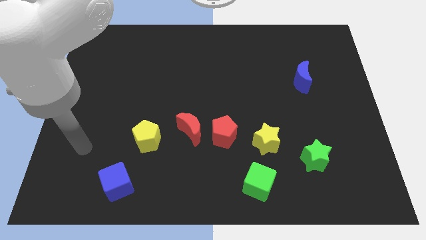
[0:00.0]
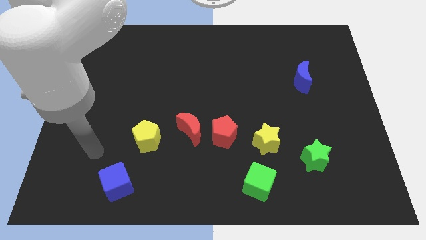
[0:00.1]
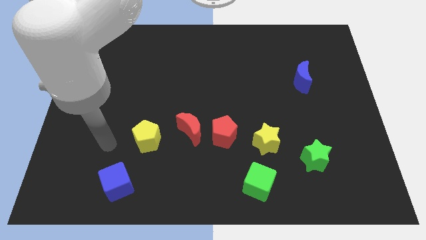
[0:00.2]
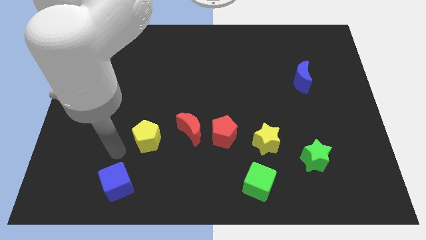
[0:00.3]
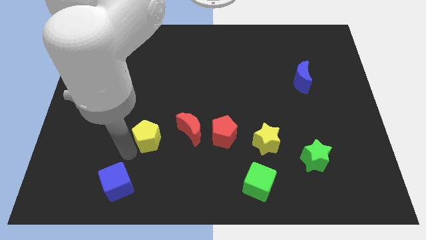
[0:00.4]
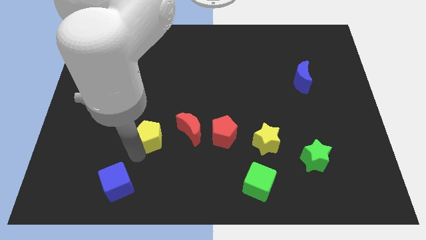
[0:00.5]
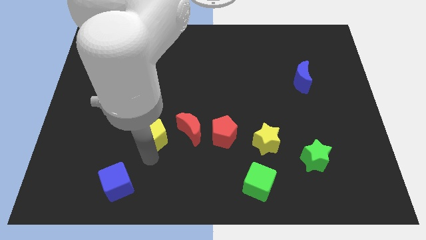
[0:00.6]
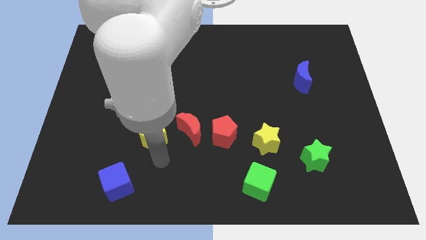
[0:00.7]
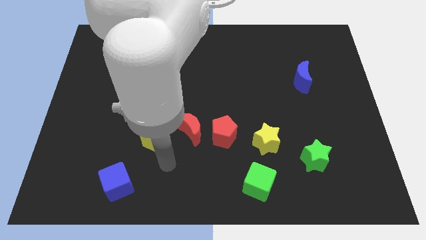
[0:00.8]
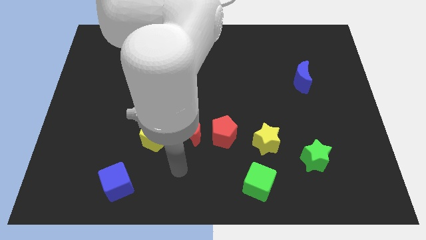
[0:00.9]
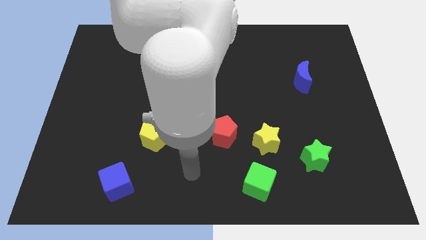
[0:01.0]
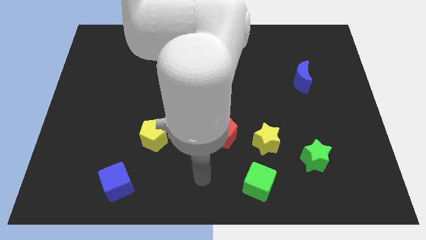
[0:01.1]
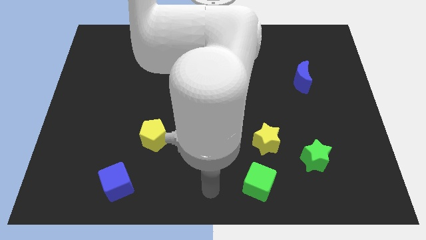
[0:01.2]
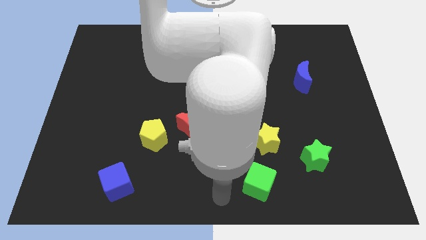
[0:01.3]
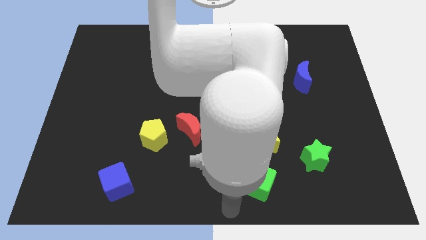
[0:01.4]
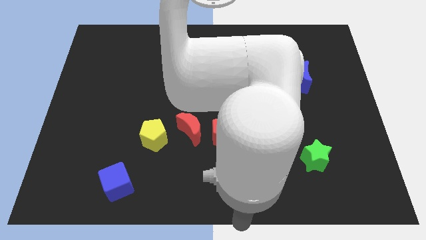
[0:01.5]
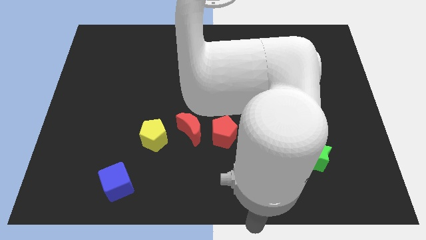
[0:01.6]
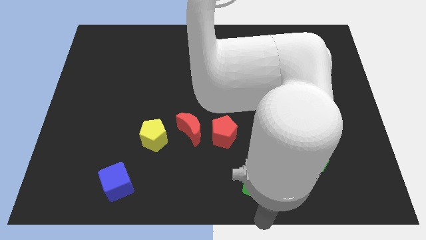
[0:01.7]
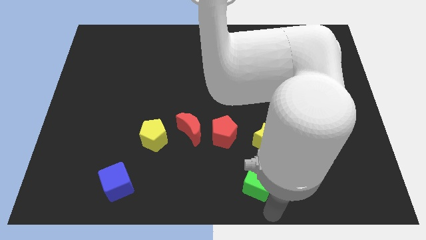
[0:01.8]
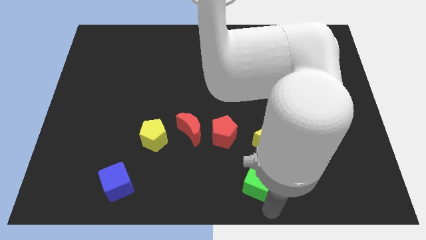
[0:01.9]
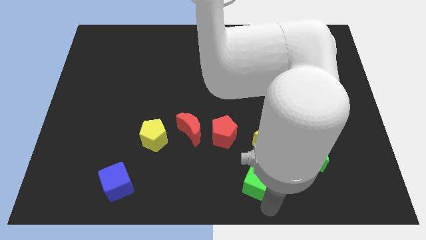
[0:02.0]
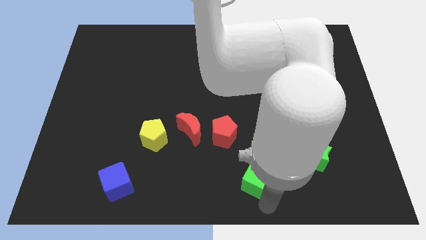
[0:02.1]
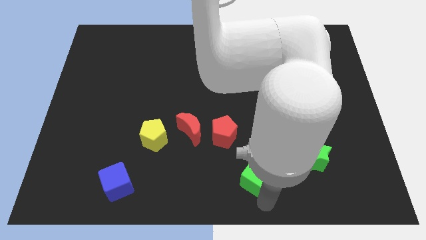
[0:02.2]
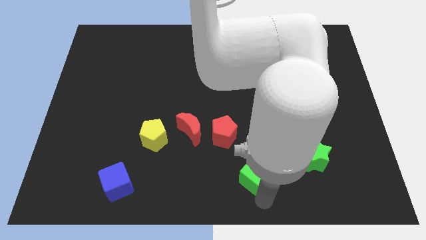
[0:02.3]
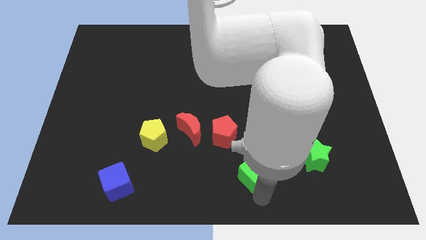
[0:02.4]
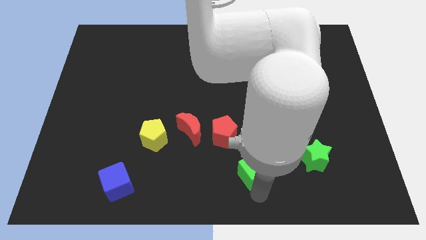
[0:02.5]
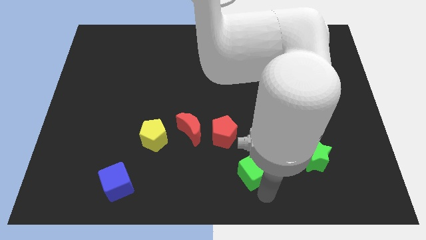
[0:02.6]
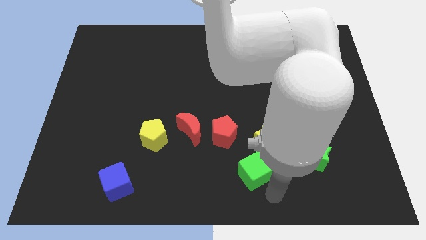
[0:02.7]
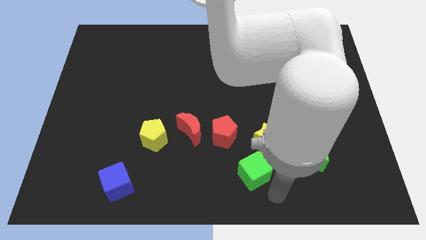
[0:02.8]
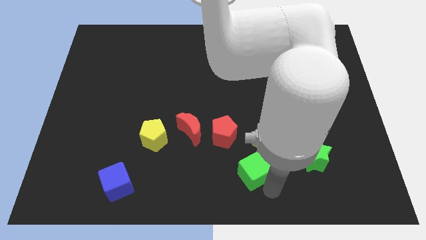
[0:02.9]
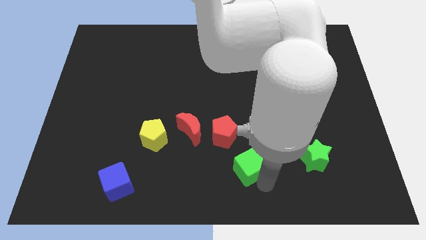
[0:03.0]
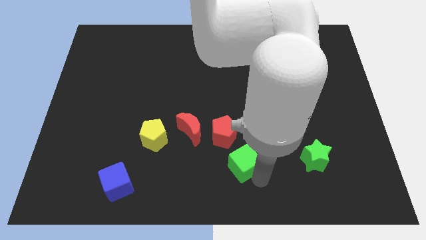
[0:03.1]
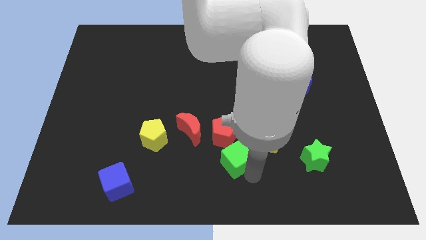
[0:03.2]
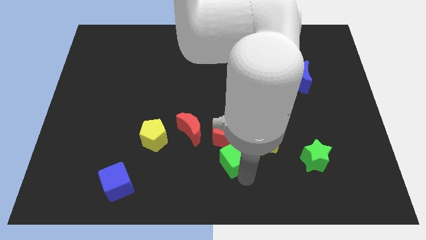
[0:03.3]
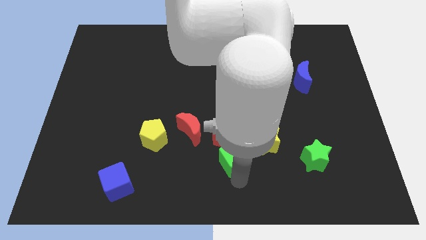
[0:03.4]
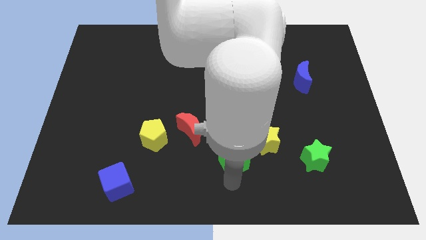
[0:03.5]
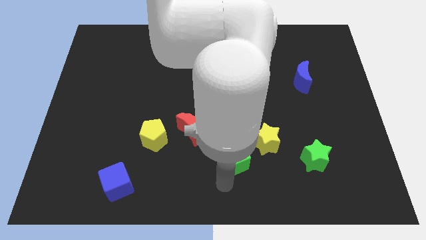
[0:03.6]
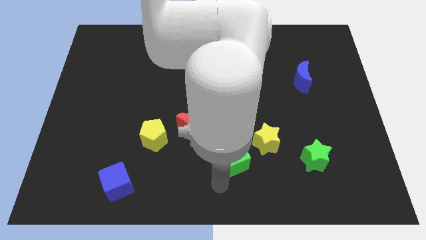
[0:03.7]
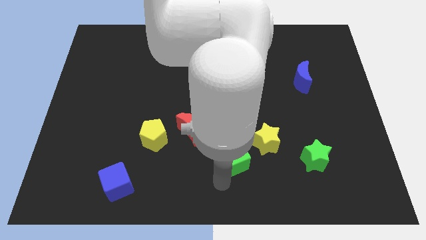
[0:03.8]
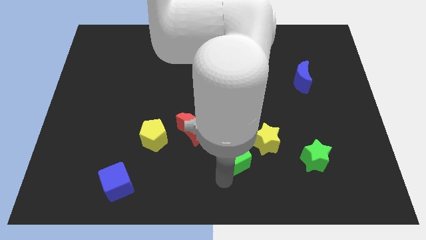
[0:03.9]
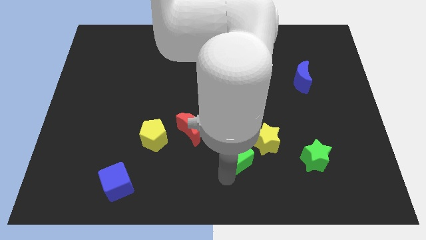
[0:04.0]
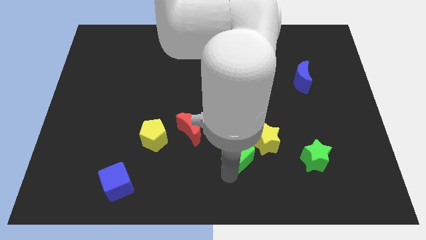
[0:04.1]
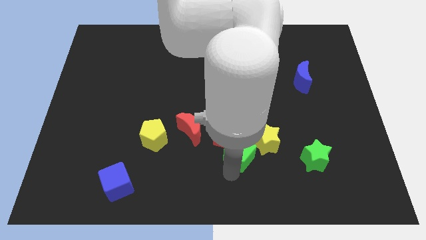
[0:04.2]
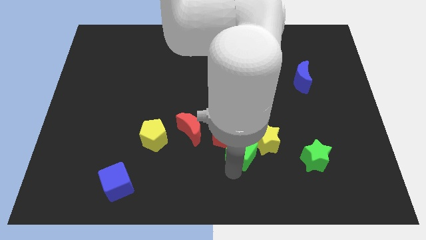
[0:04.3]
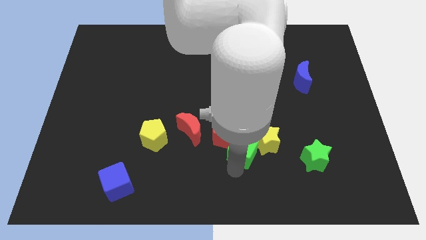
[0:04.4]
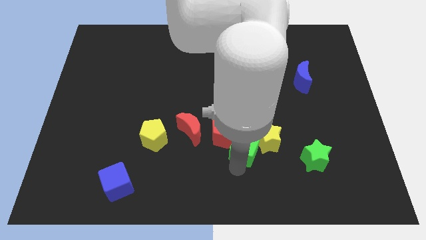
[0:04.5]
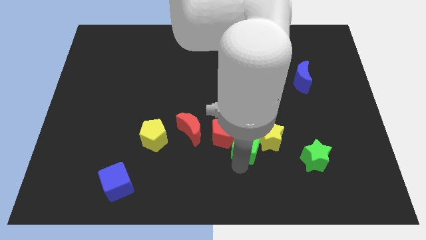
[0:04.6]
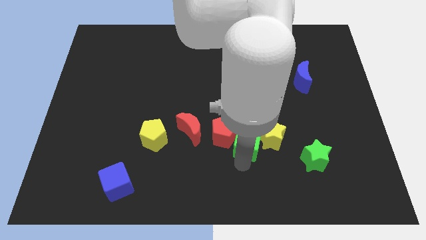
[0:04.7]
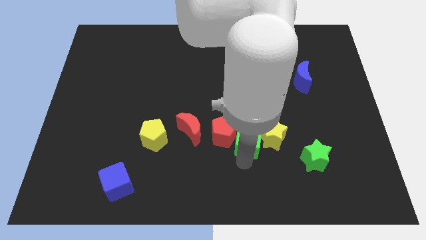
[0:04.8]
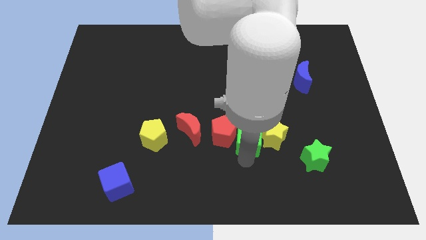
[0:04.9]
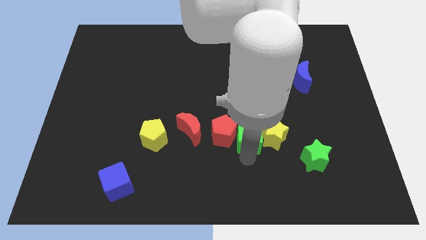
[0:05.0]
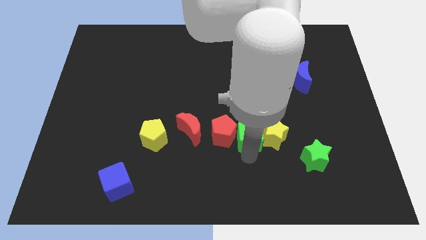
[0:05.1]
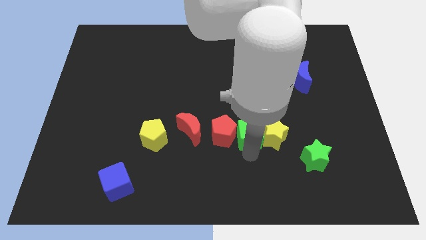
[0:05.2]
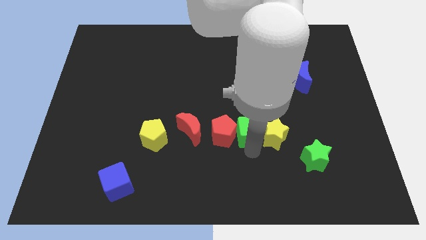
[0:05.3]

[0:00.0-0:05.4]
move the green cube to the middle of the board

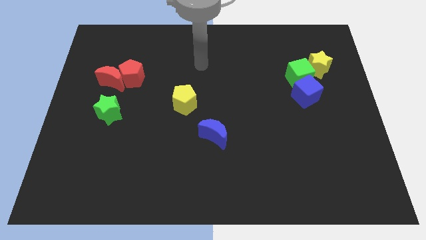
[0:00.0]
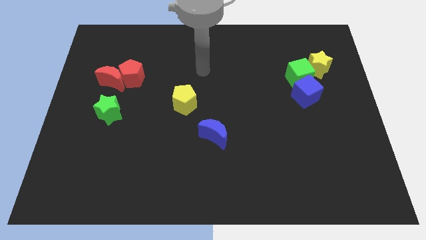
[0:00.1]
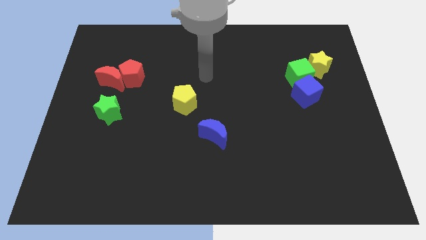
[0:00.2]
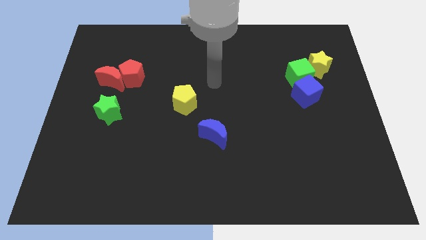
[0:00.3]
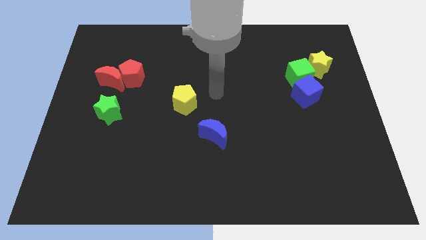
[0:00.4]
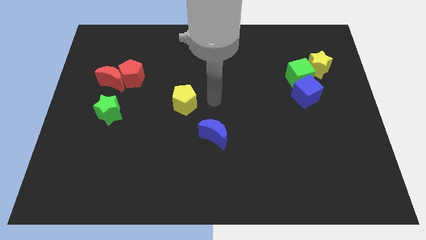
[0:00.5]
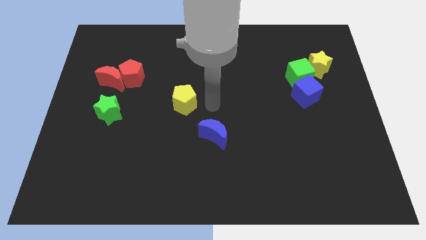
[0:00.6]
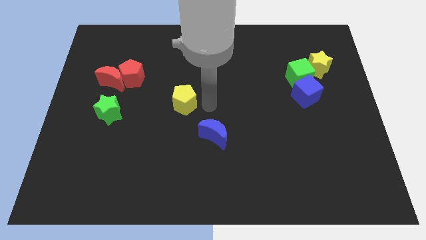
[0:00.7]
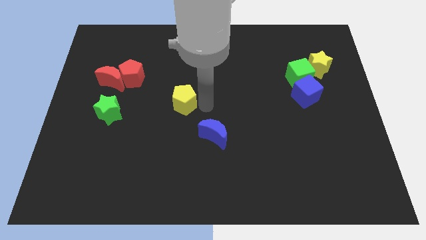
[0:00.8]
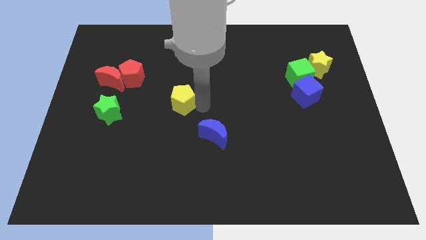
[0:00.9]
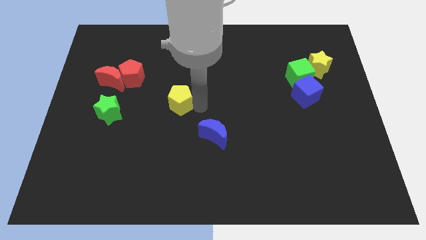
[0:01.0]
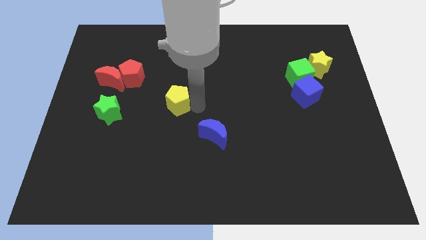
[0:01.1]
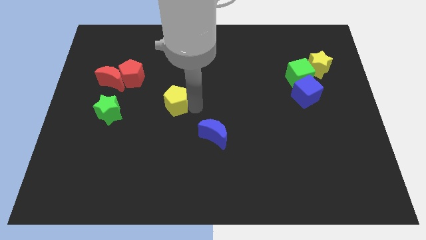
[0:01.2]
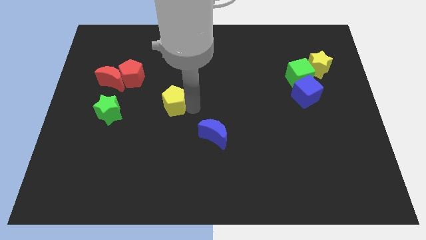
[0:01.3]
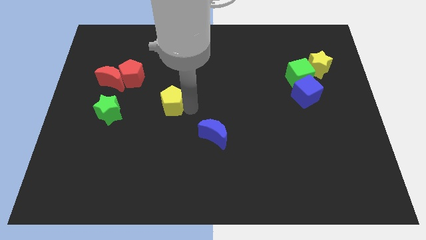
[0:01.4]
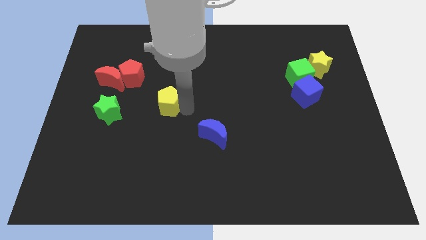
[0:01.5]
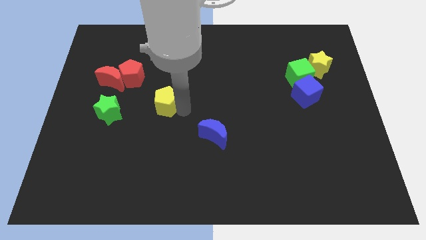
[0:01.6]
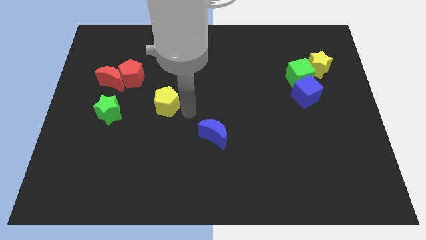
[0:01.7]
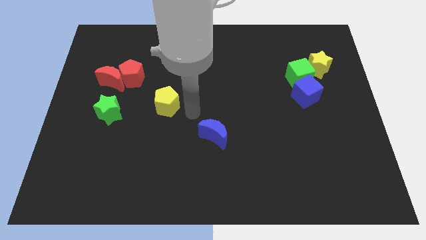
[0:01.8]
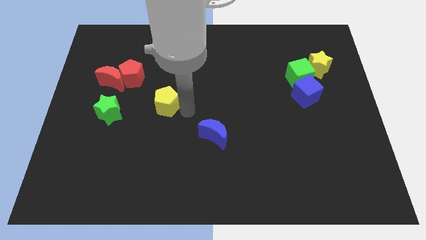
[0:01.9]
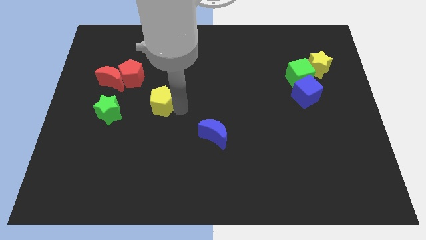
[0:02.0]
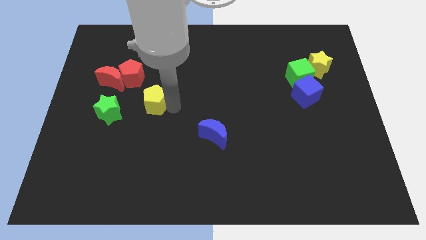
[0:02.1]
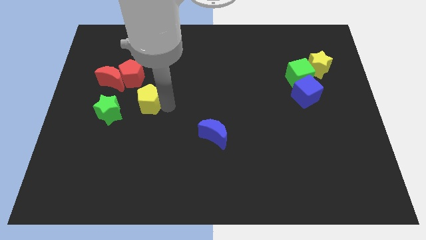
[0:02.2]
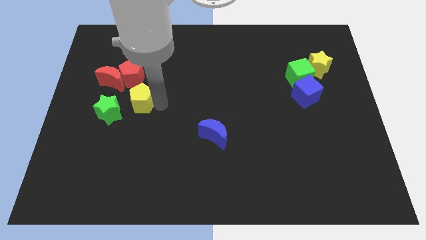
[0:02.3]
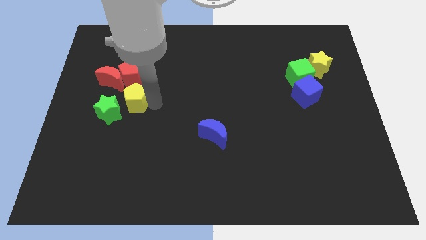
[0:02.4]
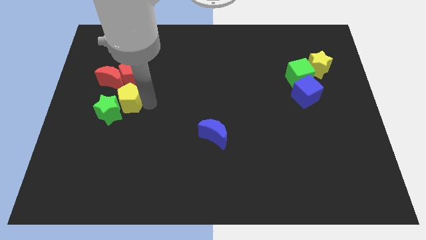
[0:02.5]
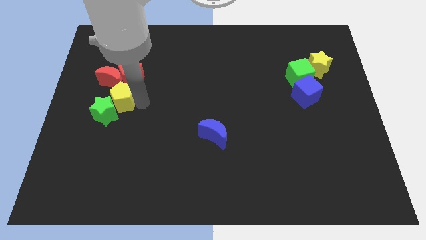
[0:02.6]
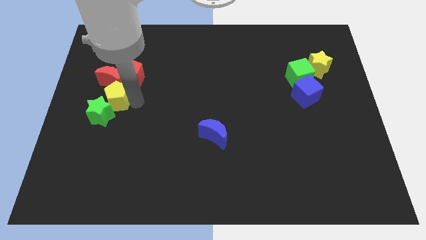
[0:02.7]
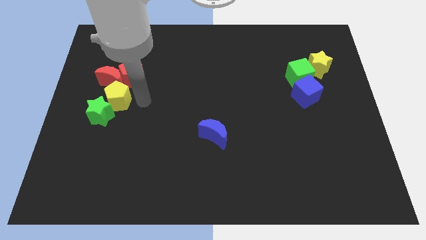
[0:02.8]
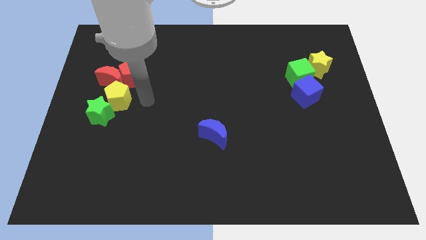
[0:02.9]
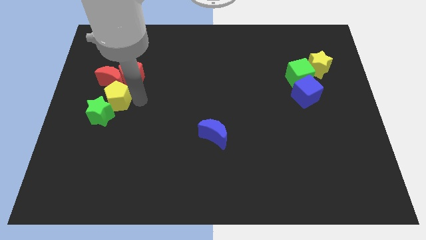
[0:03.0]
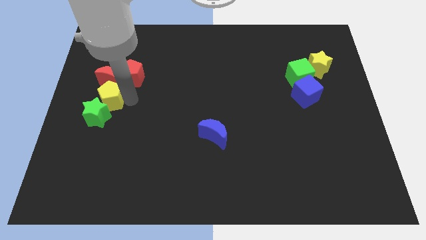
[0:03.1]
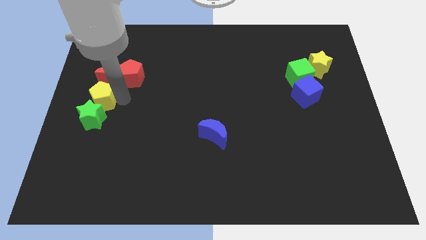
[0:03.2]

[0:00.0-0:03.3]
slide the yellow pentagon to the left side
